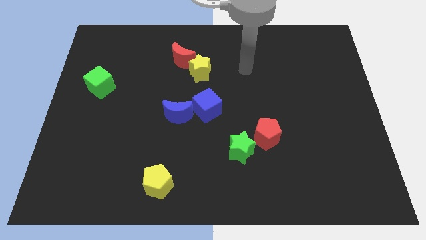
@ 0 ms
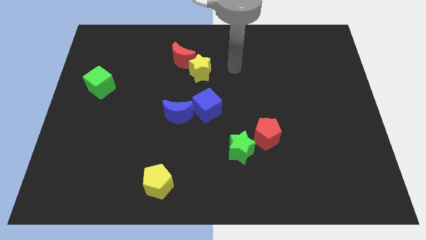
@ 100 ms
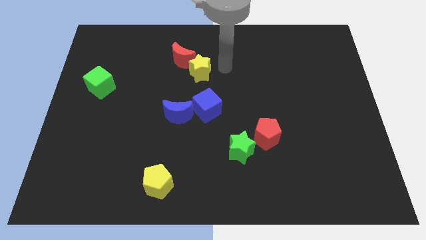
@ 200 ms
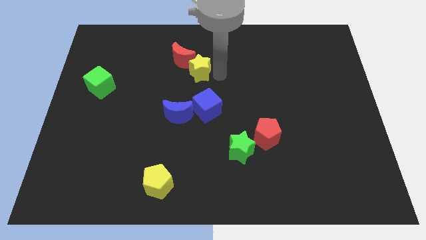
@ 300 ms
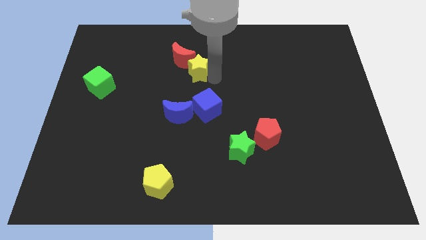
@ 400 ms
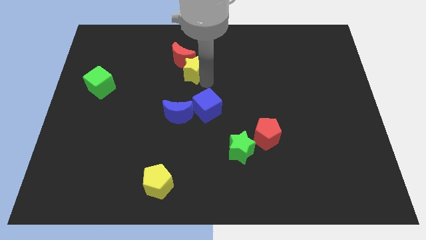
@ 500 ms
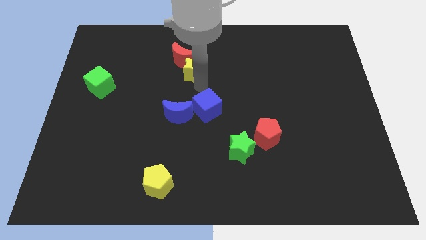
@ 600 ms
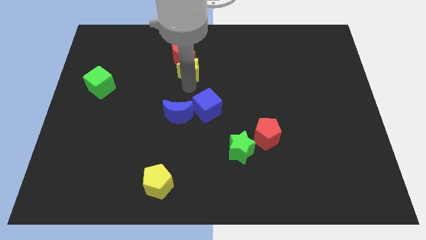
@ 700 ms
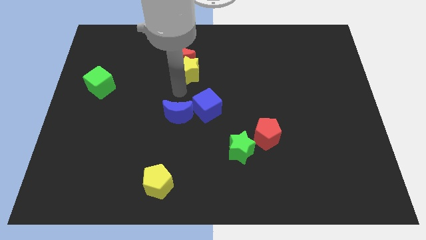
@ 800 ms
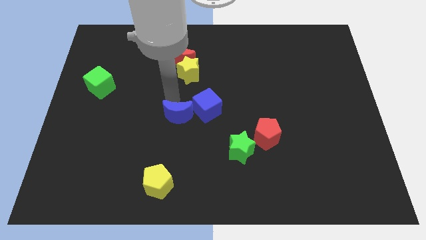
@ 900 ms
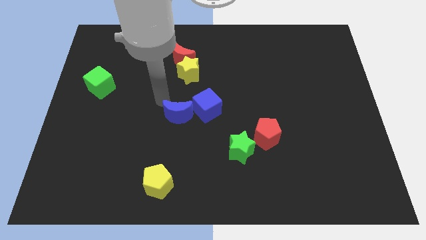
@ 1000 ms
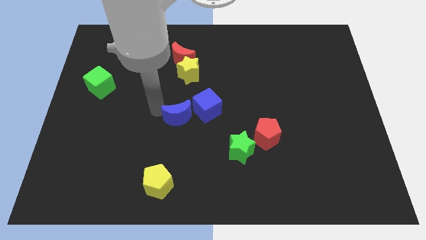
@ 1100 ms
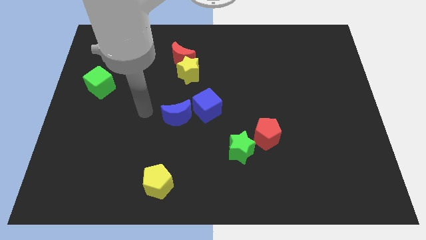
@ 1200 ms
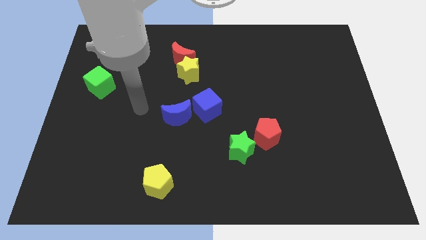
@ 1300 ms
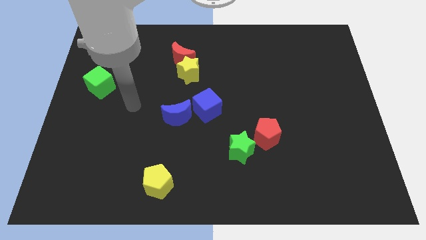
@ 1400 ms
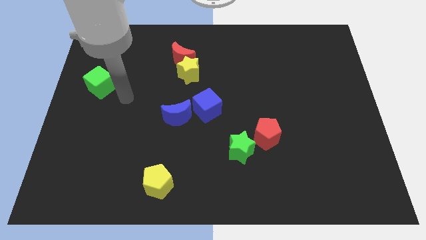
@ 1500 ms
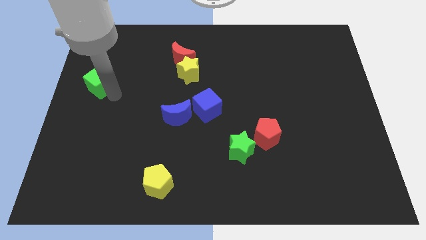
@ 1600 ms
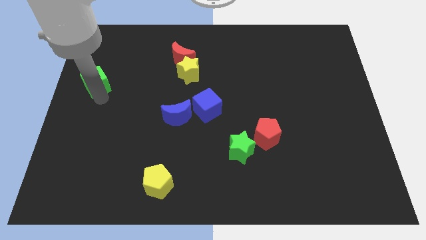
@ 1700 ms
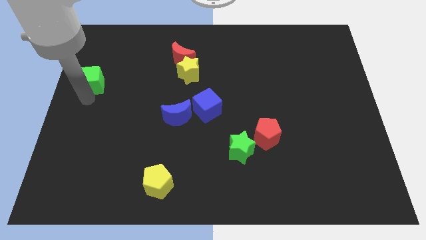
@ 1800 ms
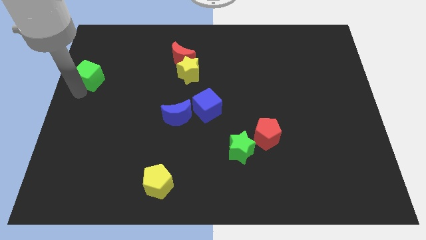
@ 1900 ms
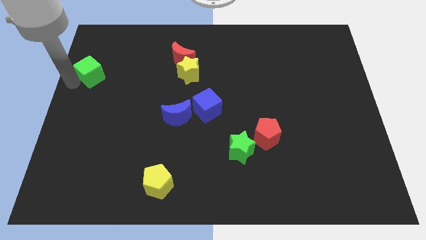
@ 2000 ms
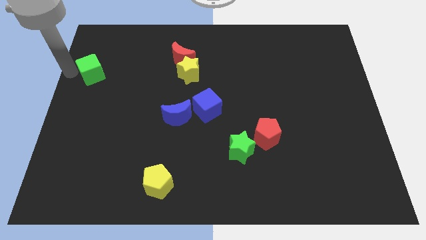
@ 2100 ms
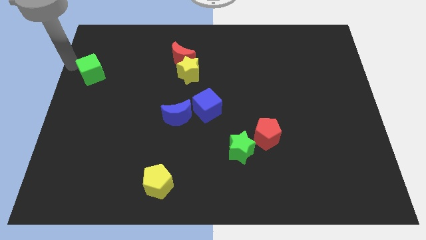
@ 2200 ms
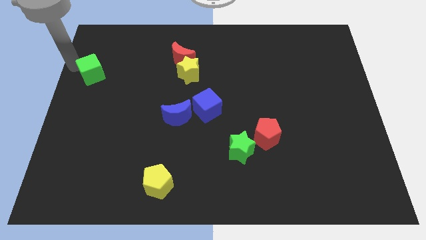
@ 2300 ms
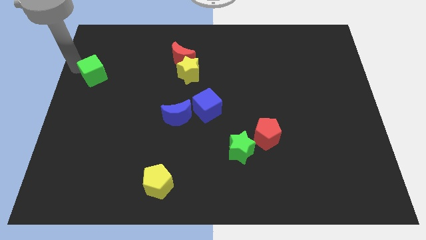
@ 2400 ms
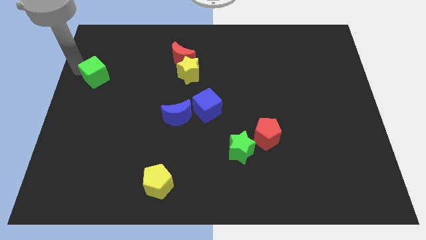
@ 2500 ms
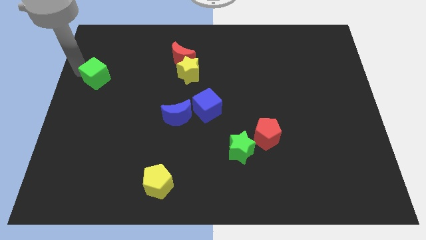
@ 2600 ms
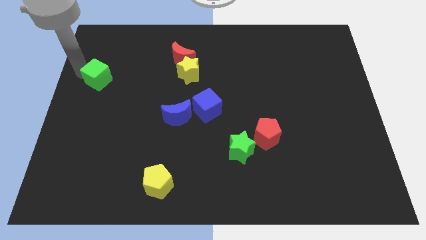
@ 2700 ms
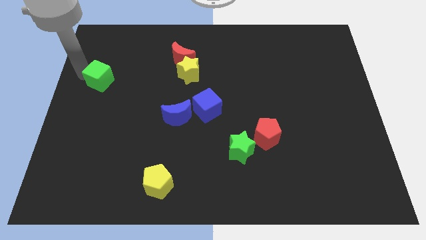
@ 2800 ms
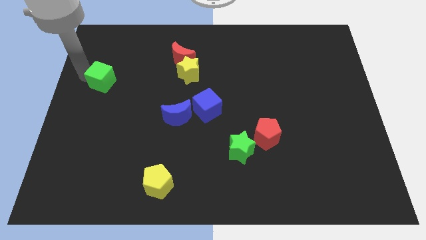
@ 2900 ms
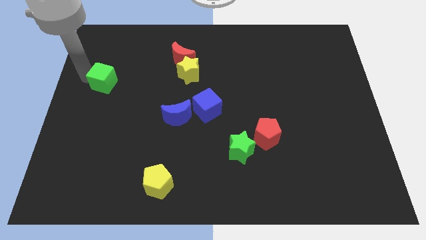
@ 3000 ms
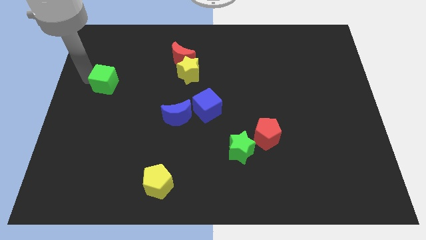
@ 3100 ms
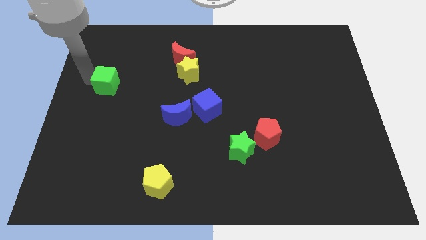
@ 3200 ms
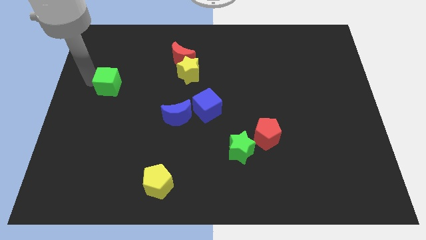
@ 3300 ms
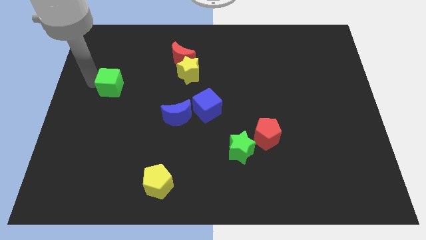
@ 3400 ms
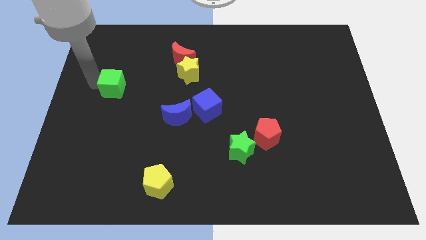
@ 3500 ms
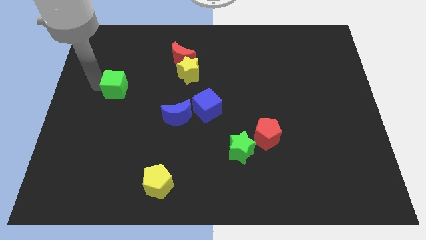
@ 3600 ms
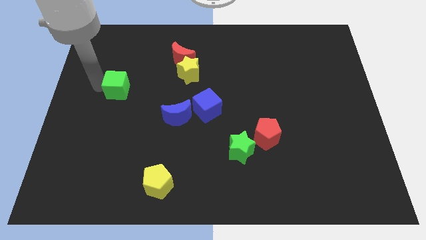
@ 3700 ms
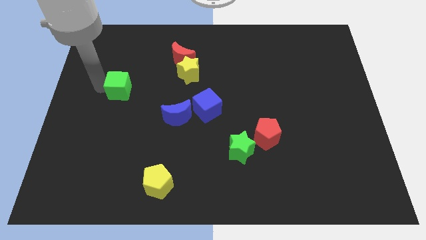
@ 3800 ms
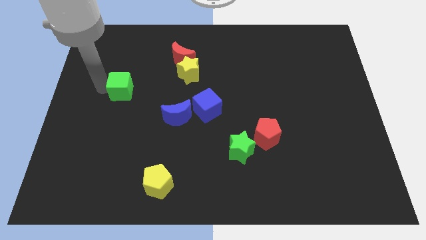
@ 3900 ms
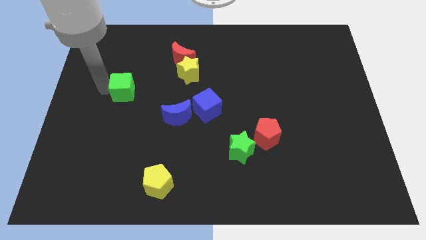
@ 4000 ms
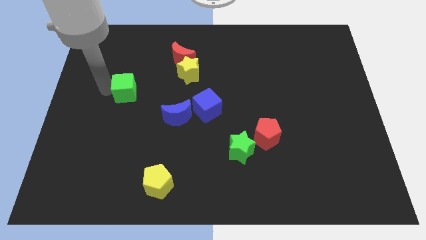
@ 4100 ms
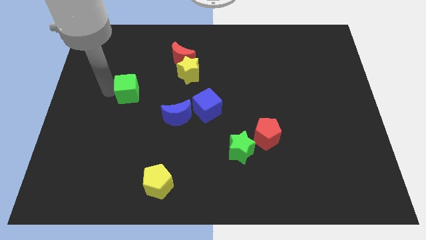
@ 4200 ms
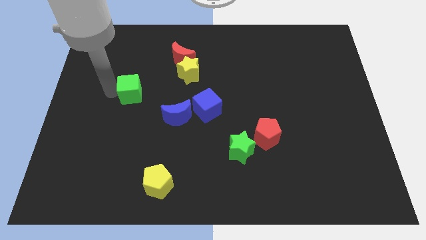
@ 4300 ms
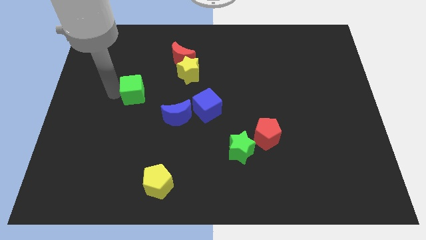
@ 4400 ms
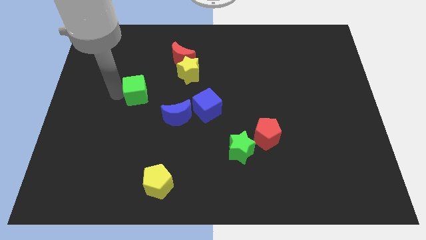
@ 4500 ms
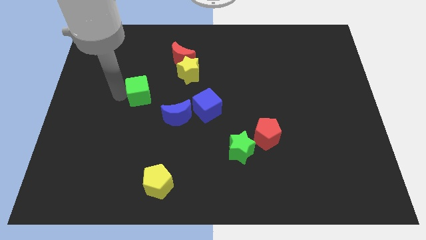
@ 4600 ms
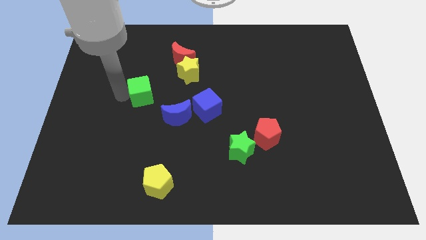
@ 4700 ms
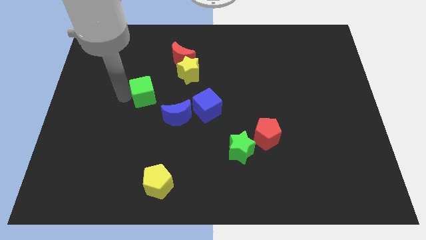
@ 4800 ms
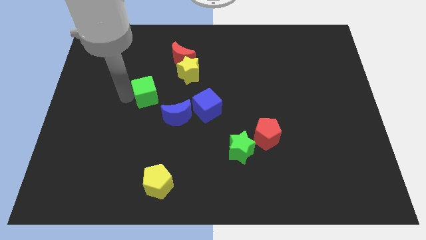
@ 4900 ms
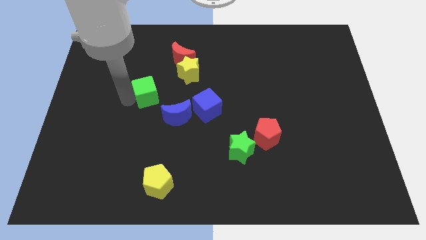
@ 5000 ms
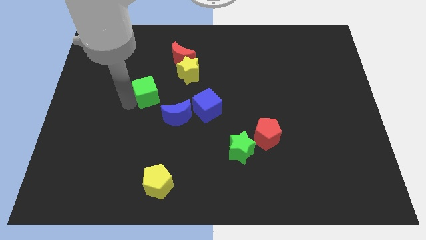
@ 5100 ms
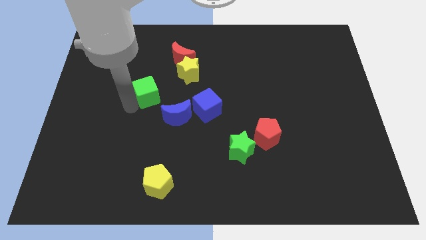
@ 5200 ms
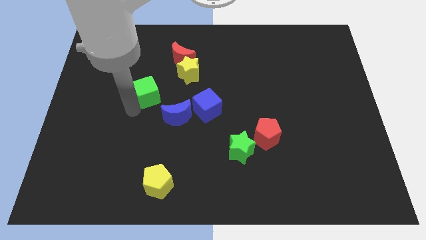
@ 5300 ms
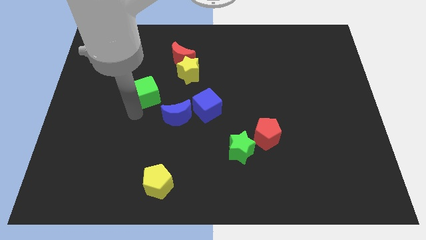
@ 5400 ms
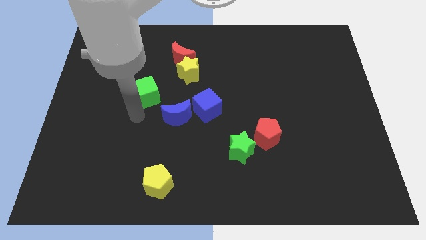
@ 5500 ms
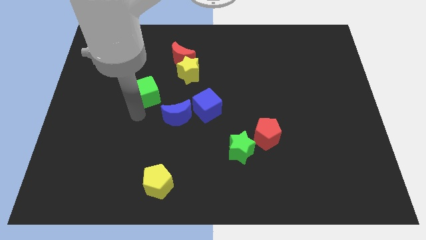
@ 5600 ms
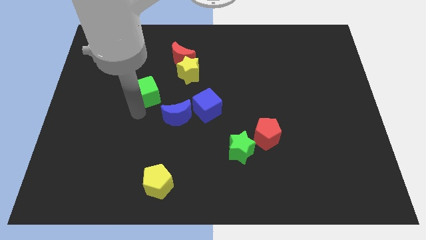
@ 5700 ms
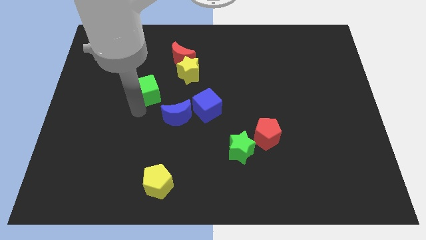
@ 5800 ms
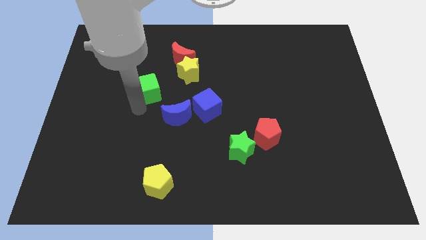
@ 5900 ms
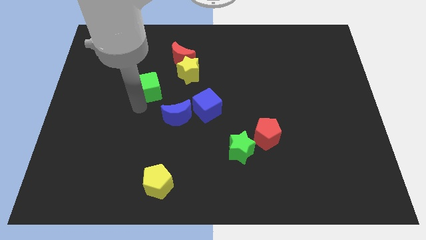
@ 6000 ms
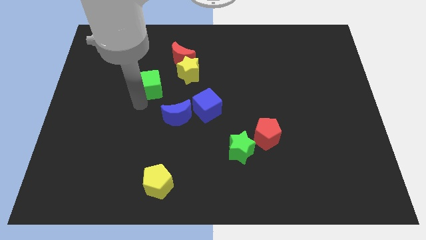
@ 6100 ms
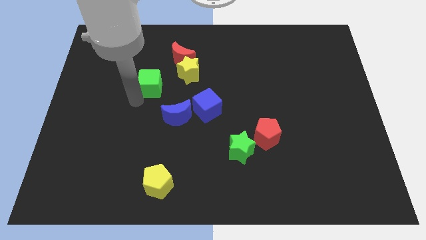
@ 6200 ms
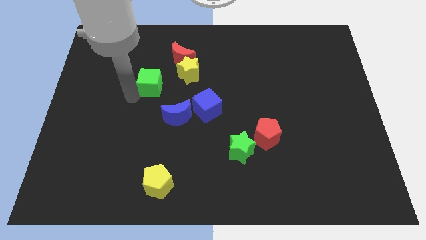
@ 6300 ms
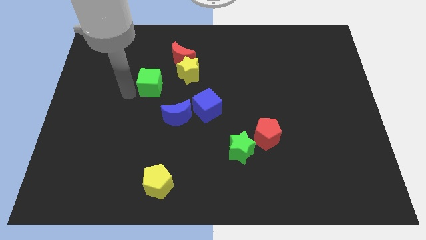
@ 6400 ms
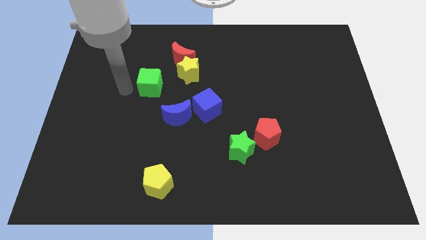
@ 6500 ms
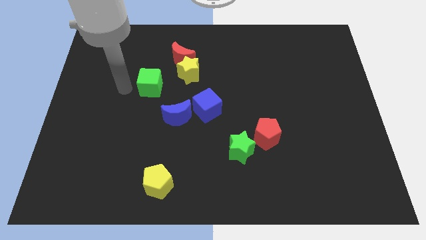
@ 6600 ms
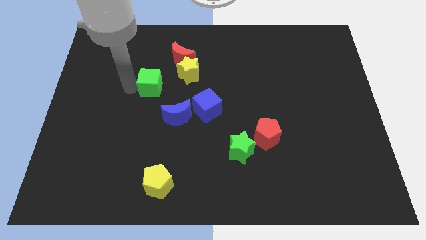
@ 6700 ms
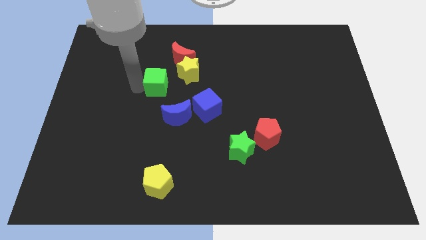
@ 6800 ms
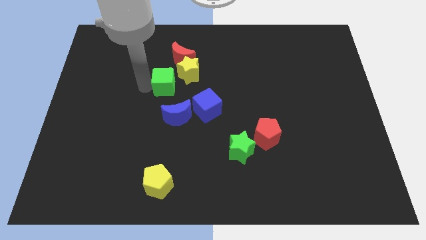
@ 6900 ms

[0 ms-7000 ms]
slide the green cube to the top side of the blue moon
